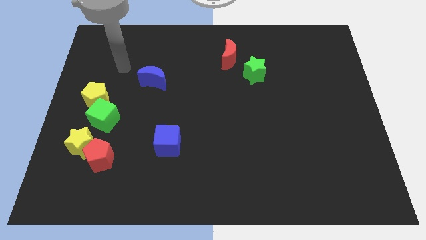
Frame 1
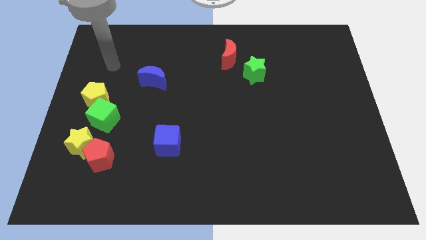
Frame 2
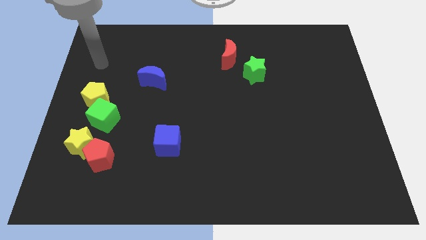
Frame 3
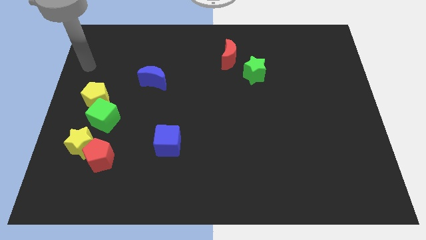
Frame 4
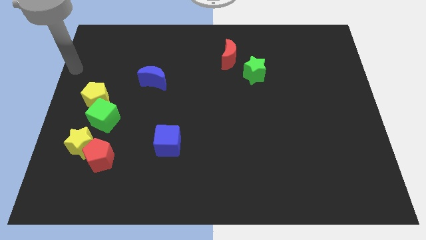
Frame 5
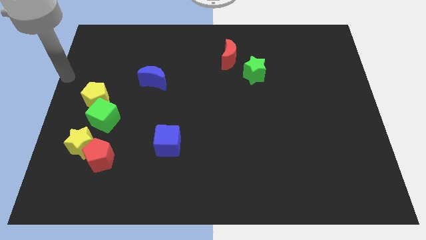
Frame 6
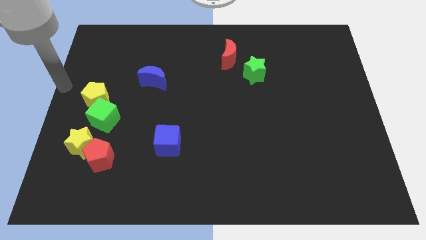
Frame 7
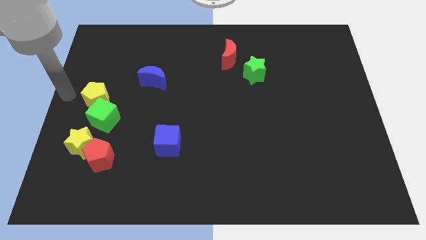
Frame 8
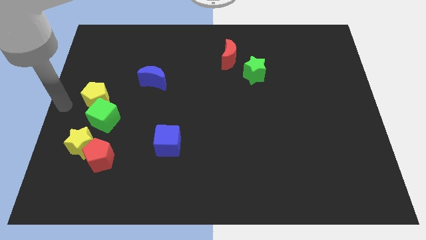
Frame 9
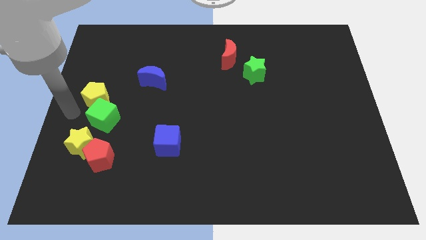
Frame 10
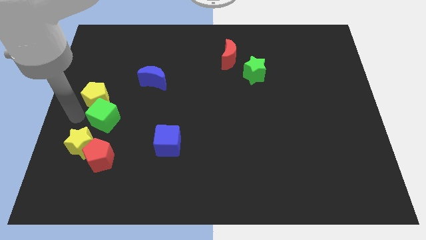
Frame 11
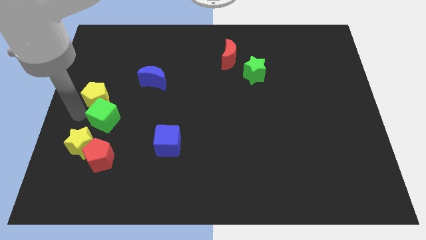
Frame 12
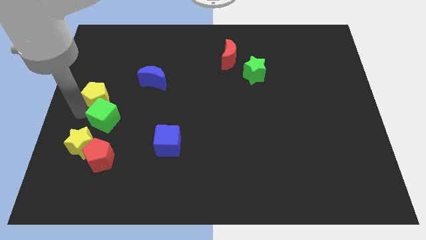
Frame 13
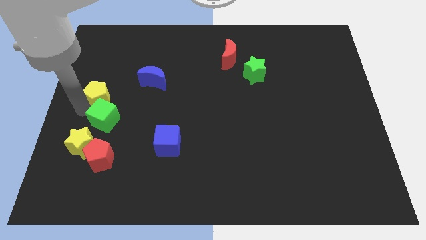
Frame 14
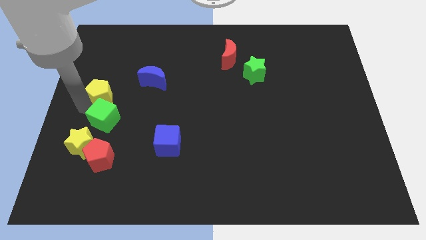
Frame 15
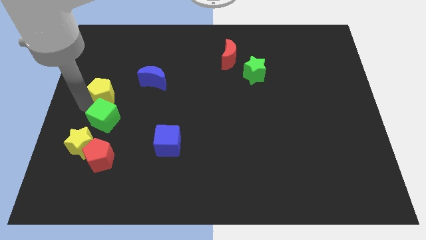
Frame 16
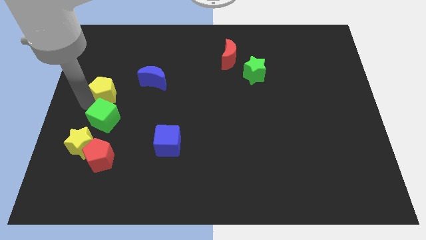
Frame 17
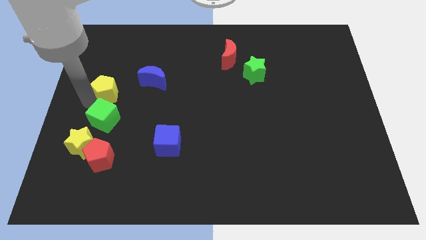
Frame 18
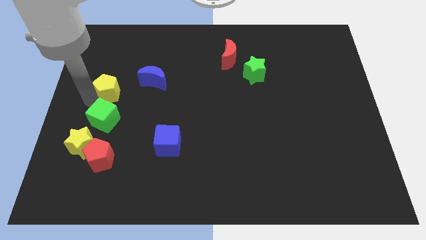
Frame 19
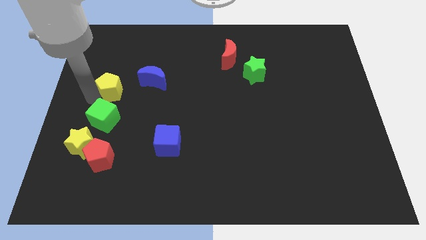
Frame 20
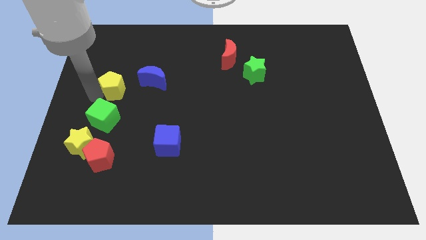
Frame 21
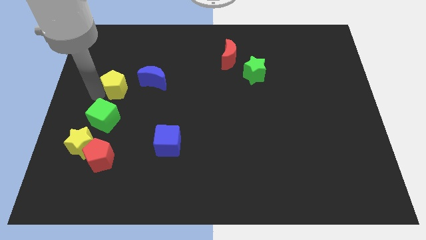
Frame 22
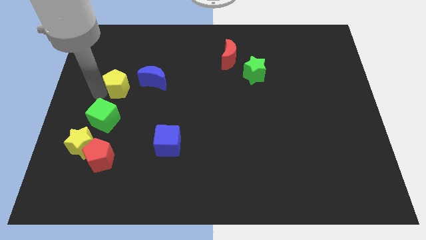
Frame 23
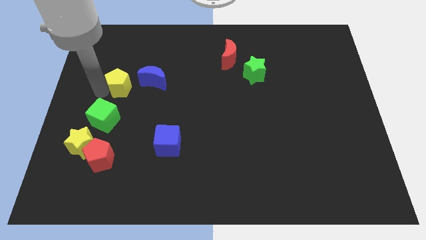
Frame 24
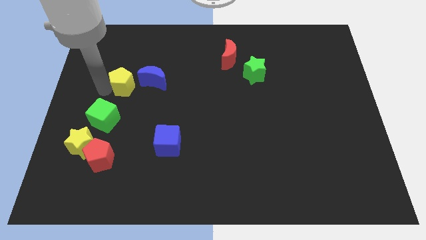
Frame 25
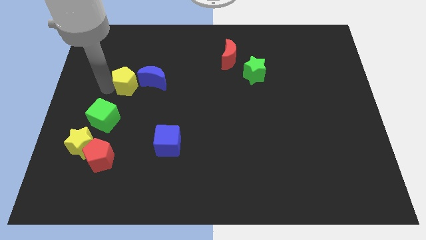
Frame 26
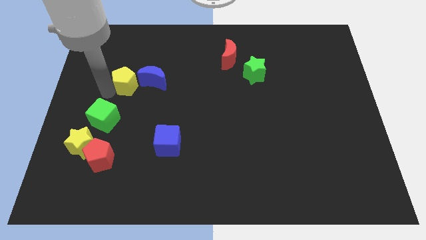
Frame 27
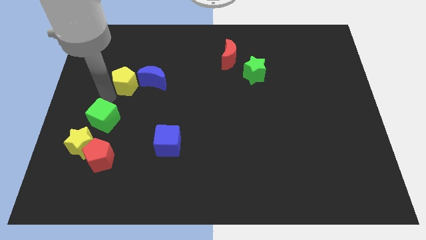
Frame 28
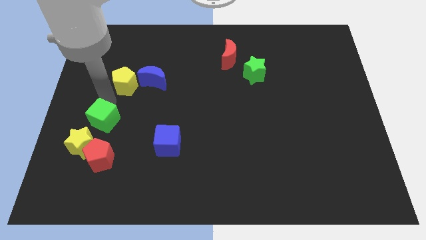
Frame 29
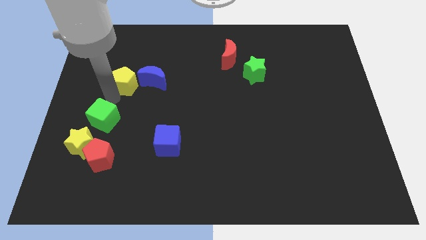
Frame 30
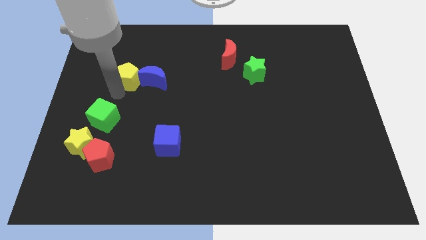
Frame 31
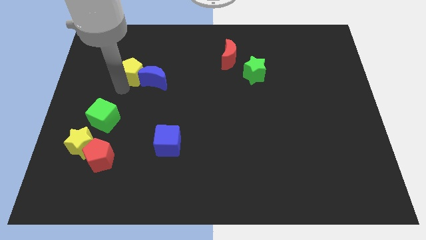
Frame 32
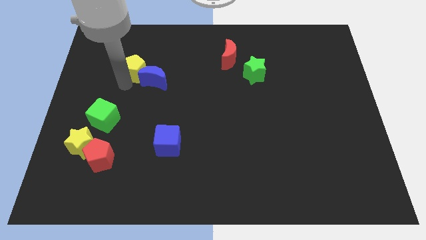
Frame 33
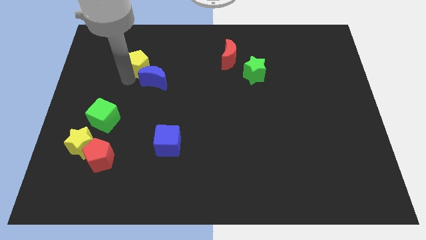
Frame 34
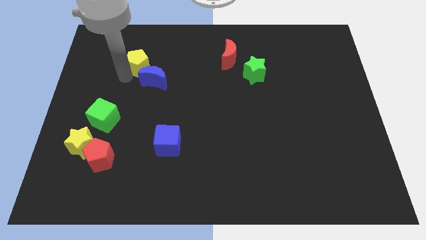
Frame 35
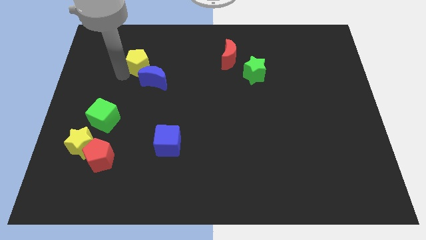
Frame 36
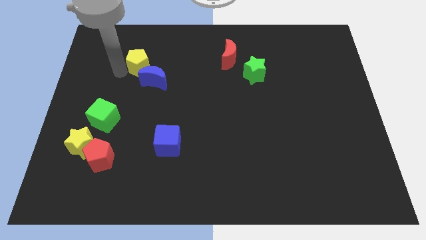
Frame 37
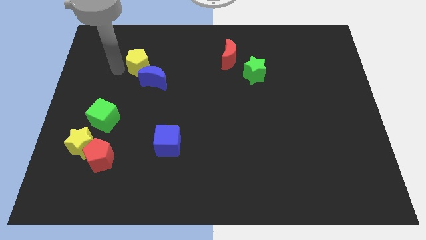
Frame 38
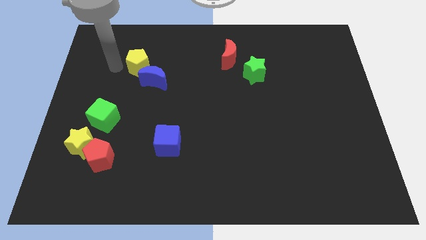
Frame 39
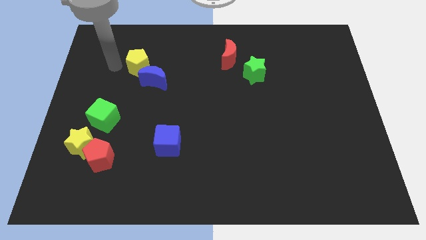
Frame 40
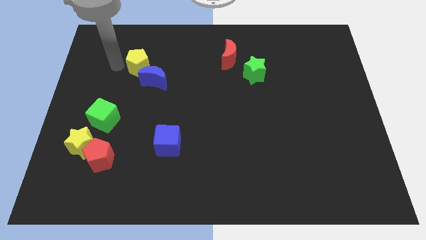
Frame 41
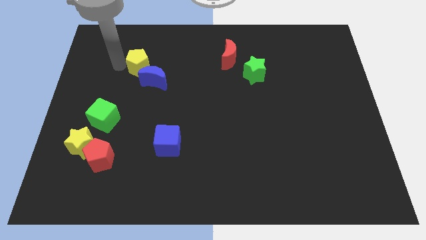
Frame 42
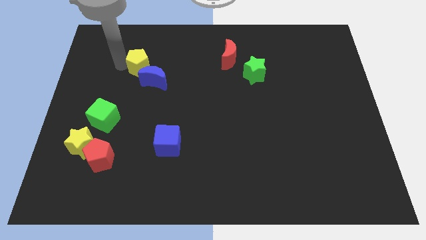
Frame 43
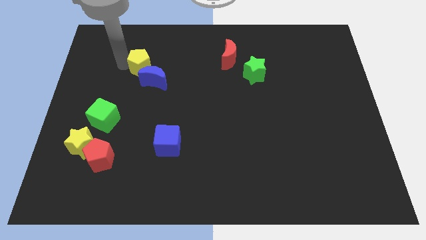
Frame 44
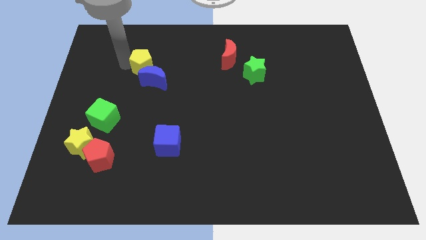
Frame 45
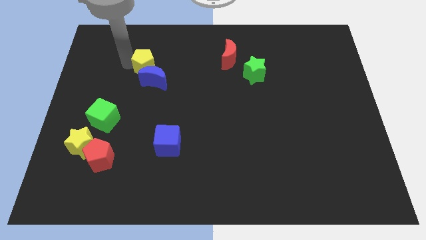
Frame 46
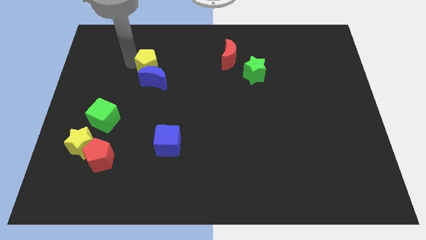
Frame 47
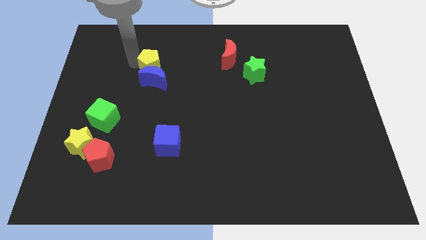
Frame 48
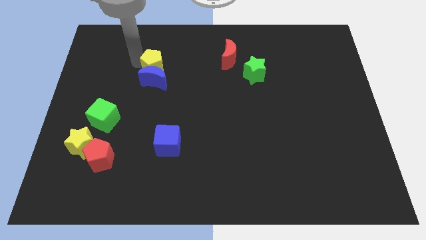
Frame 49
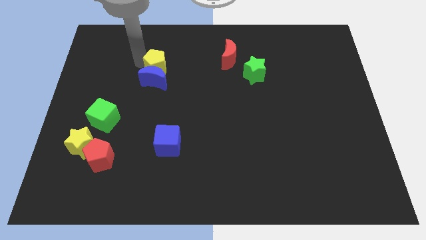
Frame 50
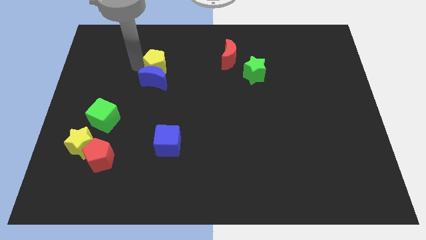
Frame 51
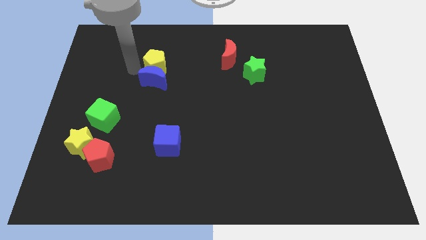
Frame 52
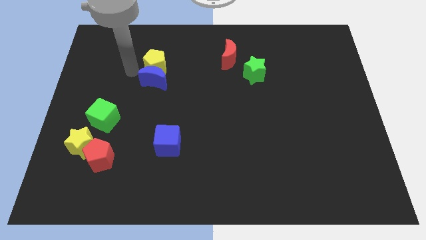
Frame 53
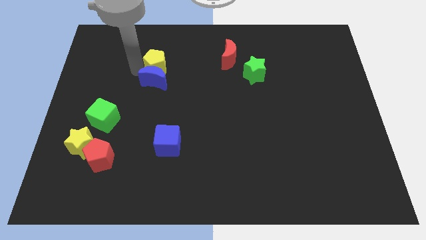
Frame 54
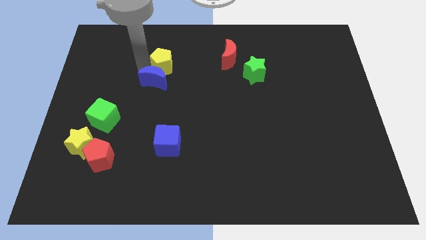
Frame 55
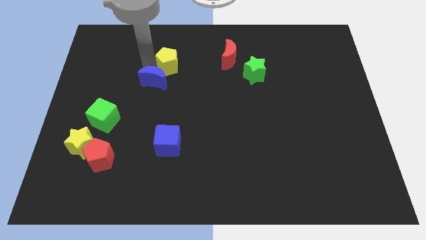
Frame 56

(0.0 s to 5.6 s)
slide the yellow pentagon to the left side of the red moon

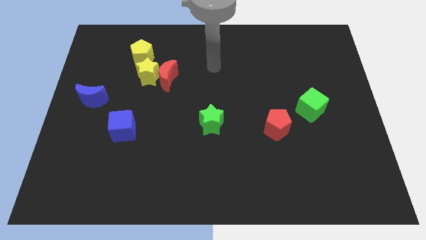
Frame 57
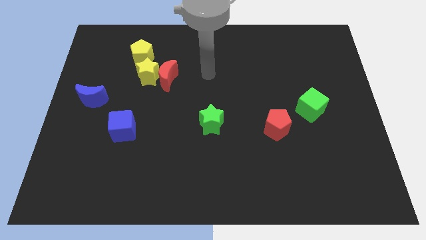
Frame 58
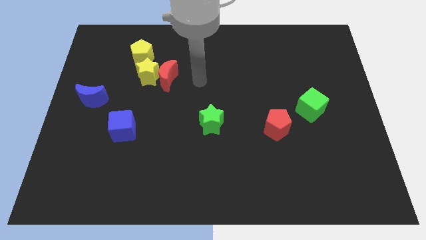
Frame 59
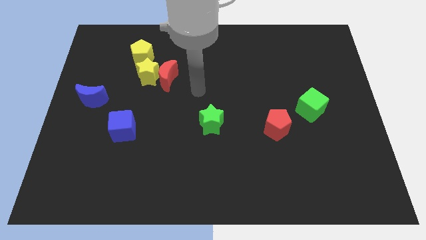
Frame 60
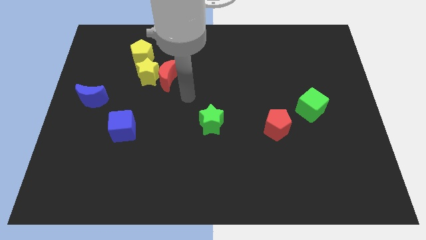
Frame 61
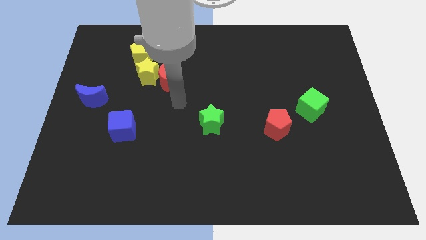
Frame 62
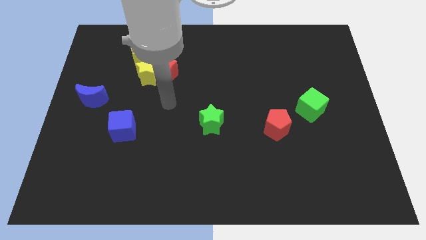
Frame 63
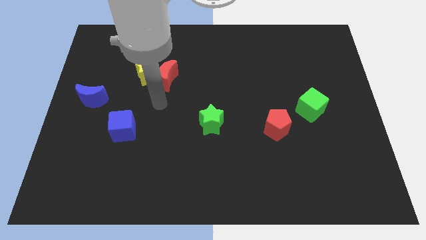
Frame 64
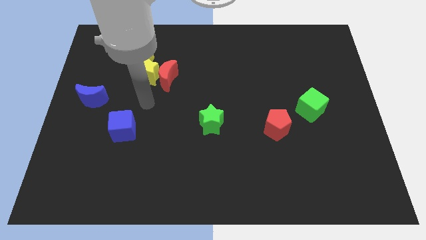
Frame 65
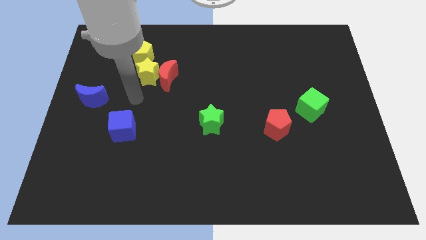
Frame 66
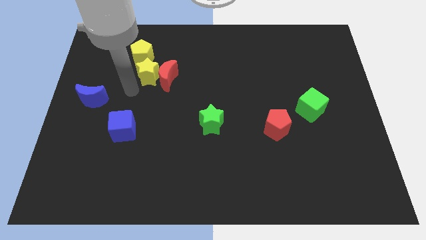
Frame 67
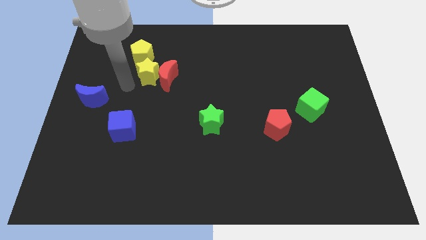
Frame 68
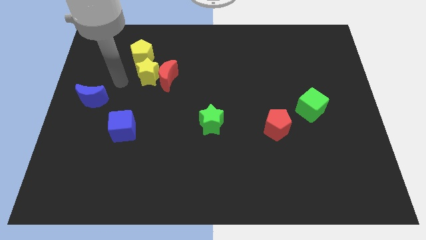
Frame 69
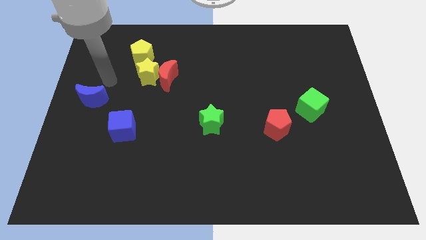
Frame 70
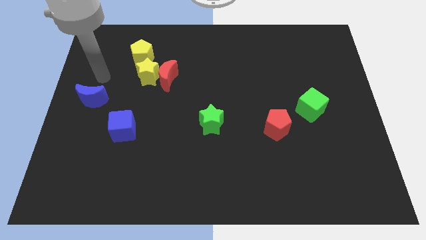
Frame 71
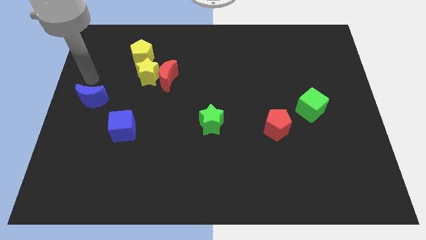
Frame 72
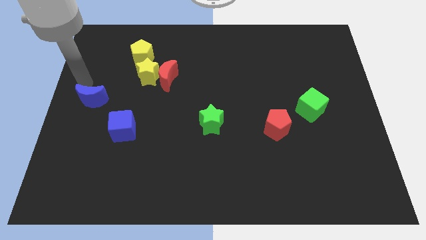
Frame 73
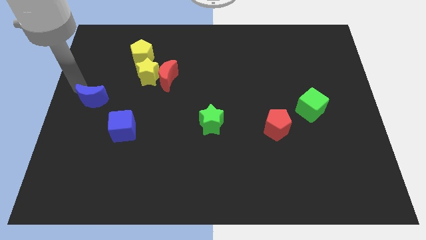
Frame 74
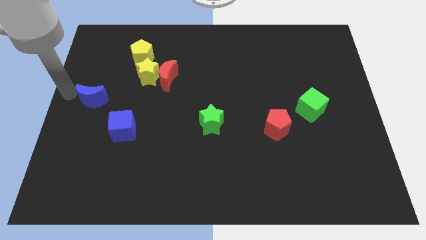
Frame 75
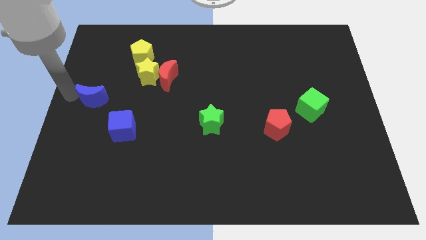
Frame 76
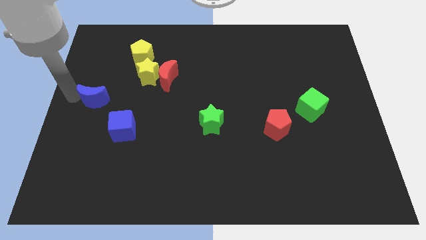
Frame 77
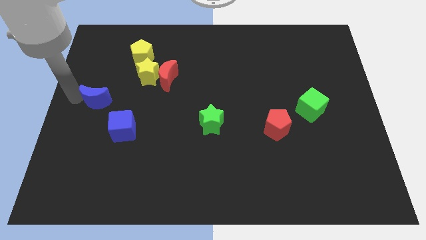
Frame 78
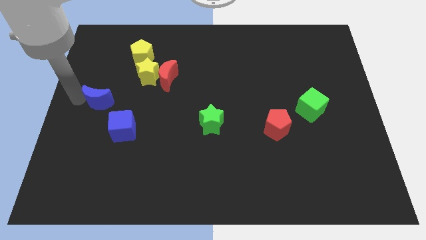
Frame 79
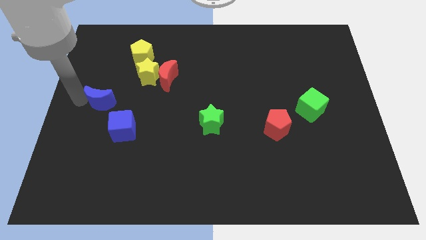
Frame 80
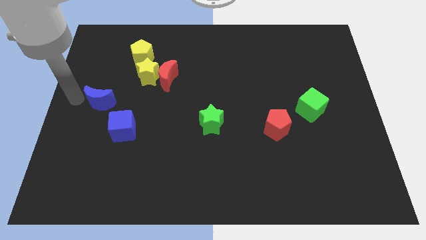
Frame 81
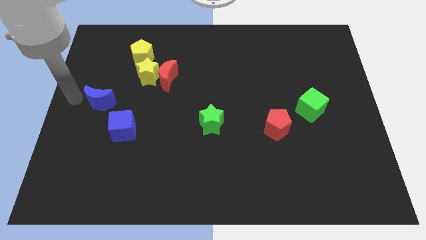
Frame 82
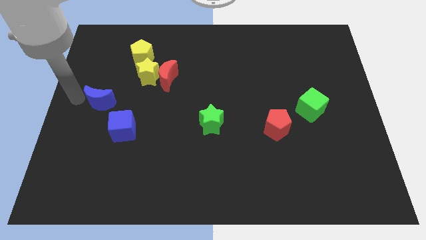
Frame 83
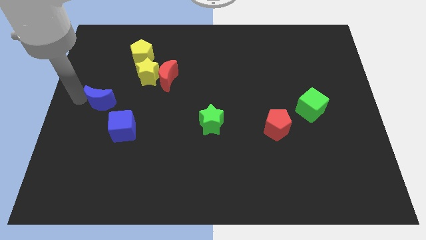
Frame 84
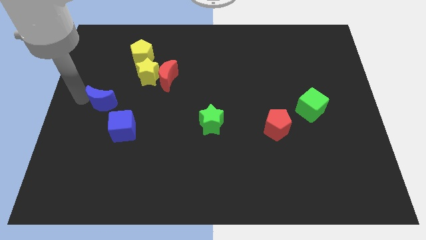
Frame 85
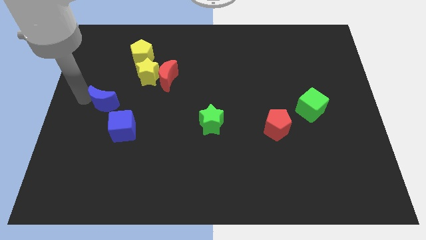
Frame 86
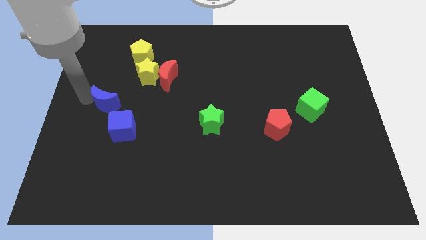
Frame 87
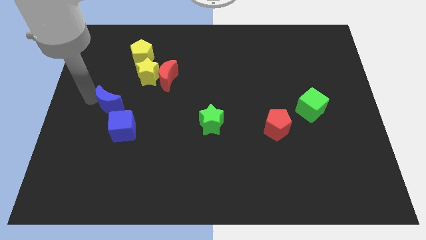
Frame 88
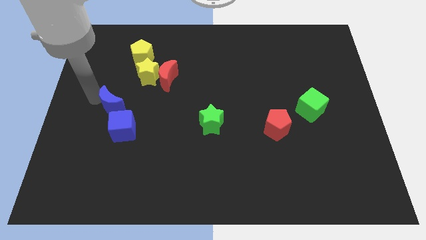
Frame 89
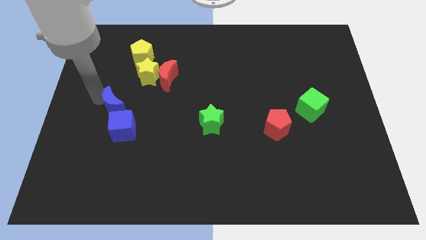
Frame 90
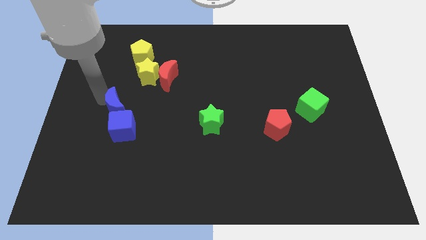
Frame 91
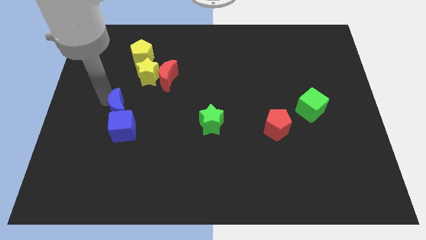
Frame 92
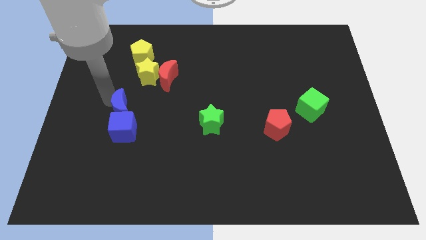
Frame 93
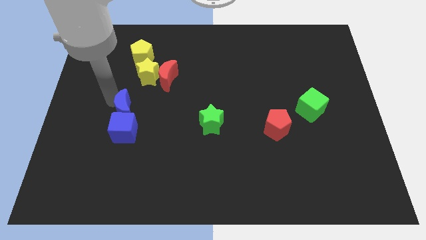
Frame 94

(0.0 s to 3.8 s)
push the blue moon diagonally up and to the right of the blue cube
